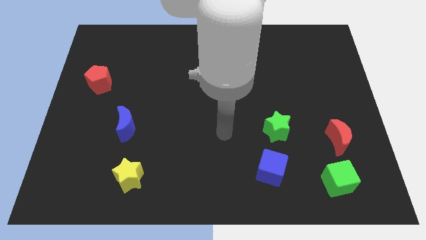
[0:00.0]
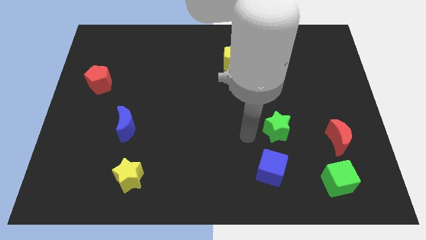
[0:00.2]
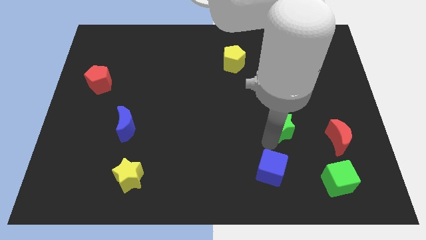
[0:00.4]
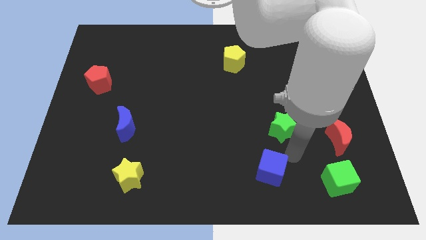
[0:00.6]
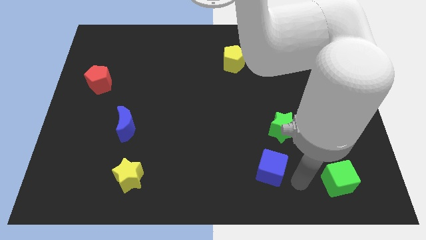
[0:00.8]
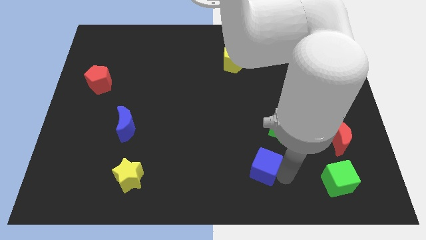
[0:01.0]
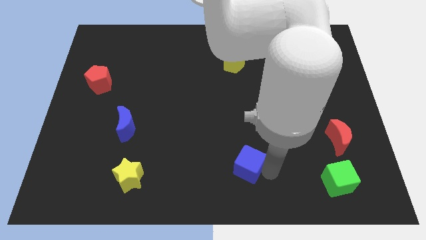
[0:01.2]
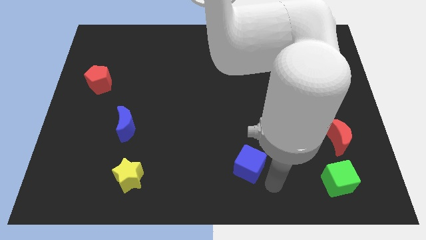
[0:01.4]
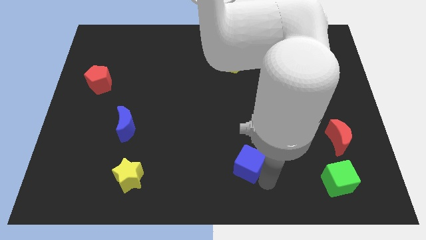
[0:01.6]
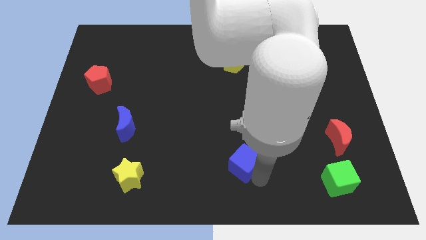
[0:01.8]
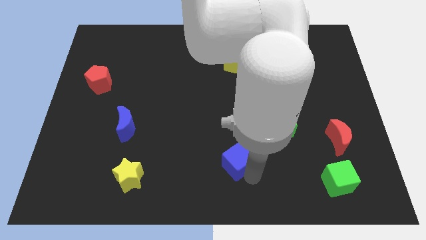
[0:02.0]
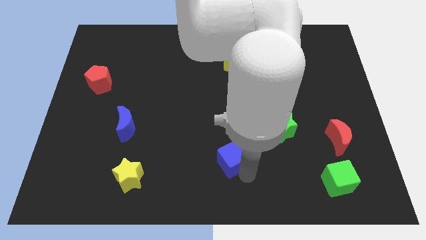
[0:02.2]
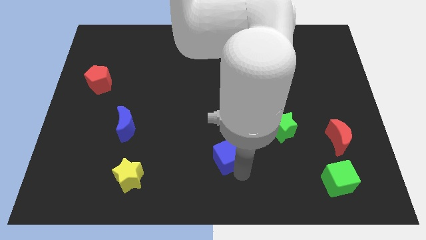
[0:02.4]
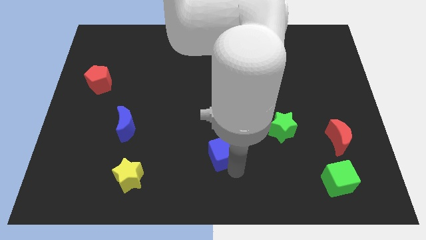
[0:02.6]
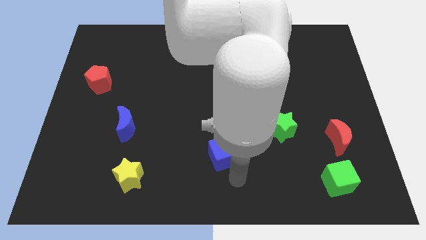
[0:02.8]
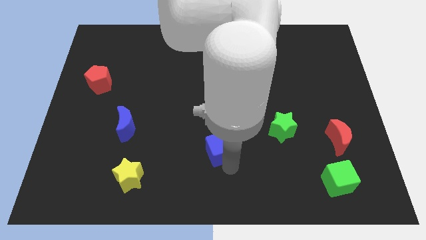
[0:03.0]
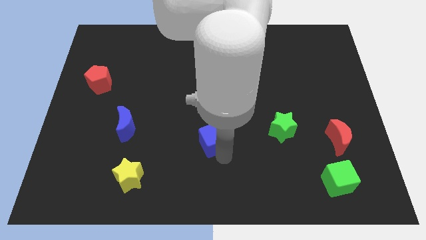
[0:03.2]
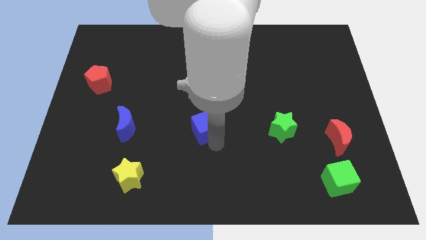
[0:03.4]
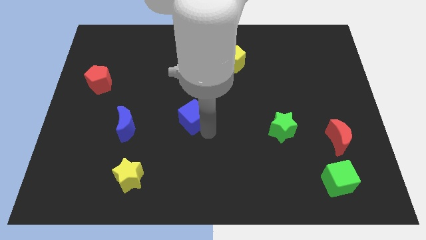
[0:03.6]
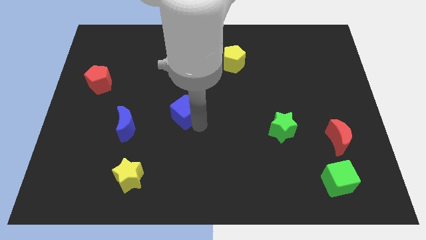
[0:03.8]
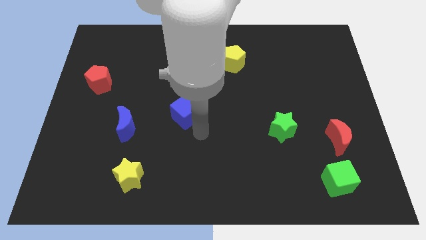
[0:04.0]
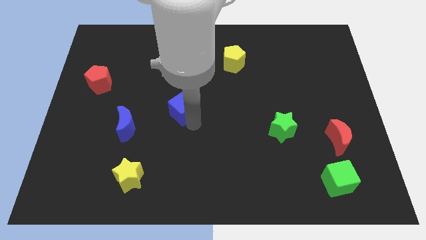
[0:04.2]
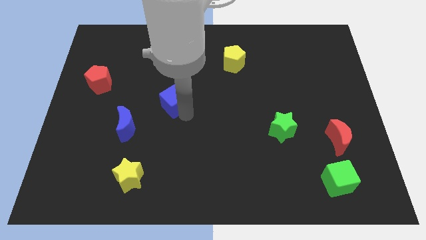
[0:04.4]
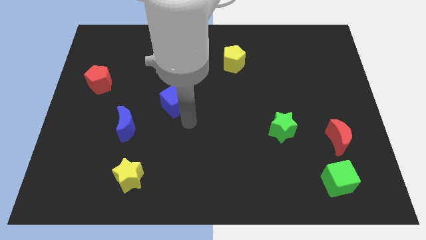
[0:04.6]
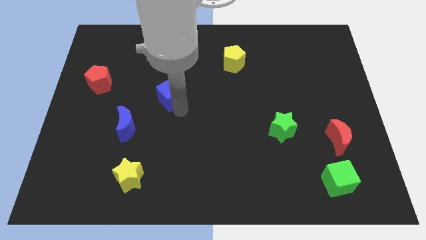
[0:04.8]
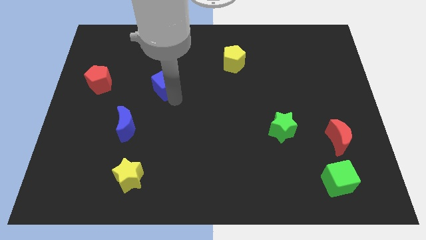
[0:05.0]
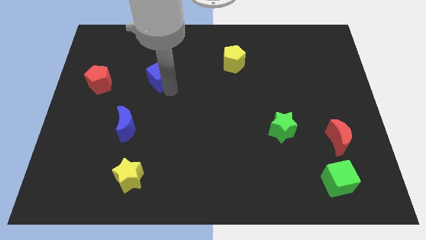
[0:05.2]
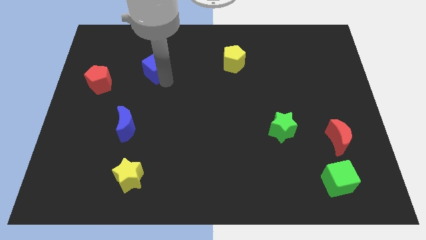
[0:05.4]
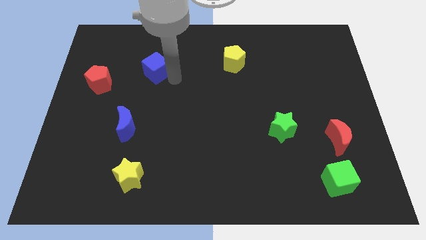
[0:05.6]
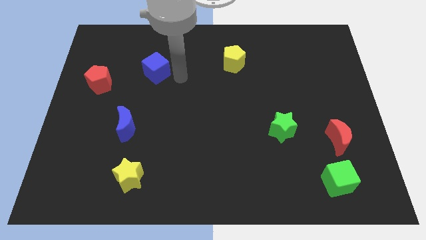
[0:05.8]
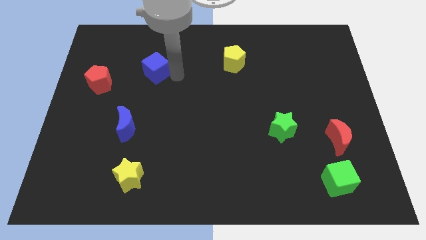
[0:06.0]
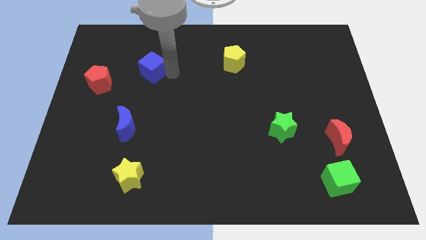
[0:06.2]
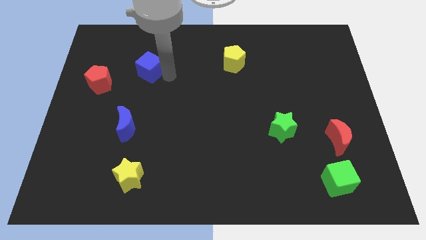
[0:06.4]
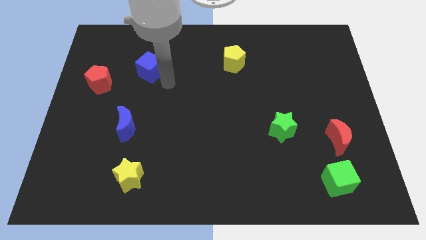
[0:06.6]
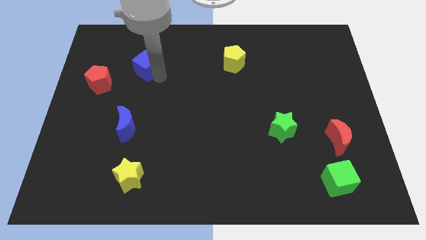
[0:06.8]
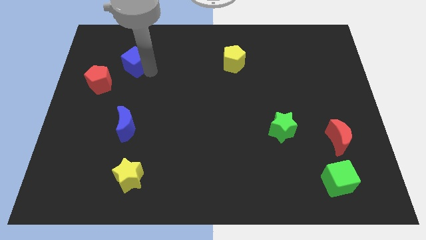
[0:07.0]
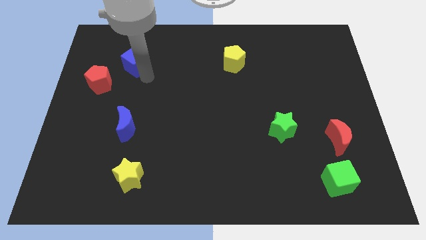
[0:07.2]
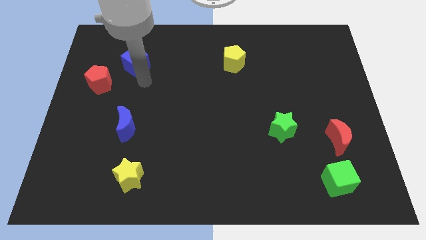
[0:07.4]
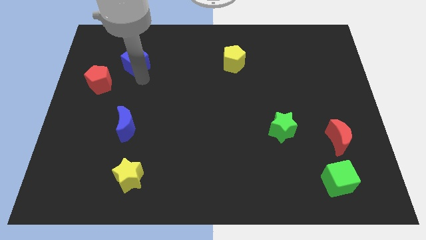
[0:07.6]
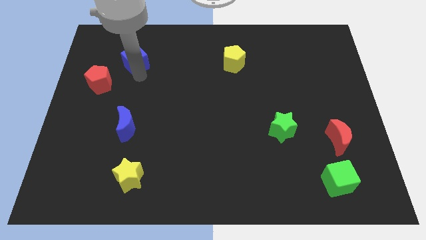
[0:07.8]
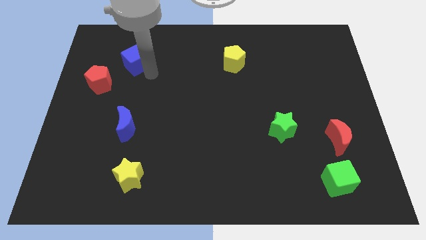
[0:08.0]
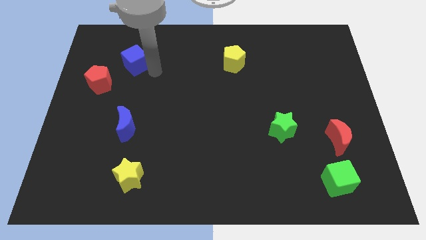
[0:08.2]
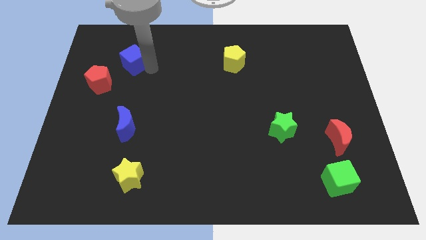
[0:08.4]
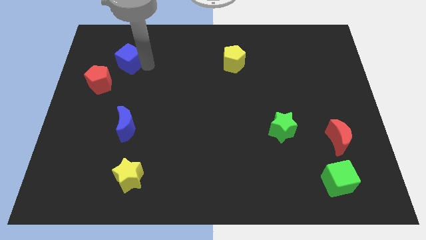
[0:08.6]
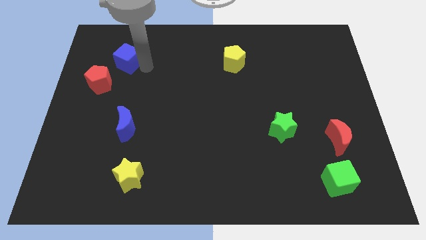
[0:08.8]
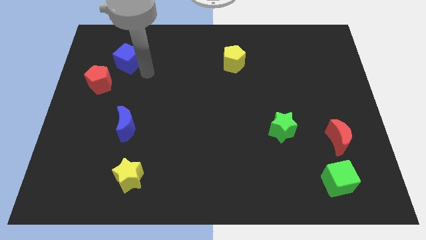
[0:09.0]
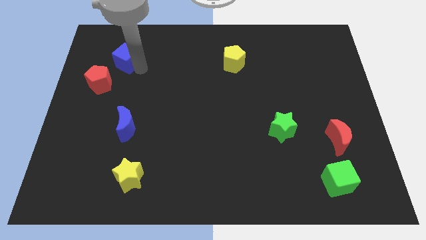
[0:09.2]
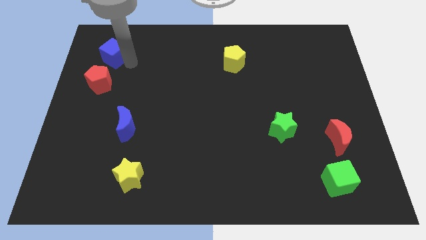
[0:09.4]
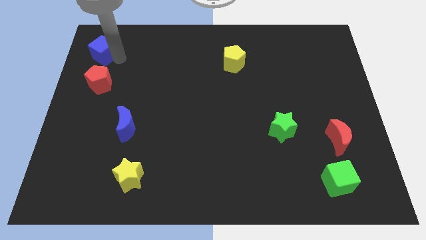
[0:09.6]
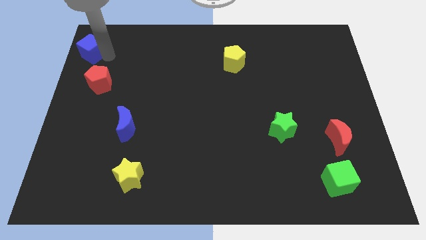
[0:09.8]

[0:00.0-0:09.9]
slide the blue cube to the top left of the board

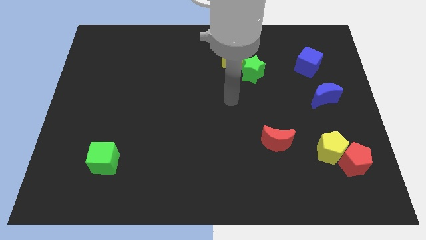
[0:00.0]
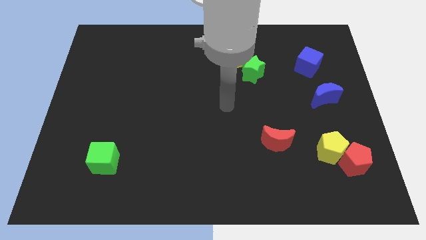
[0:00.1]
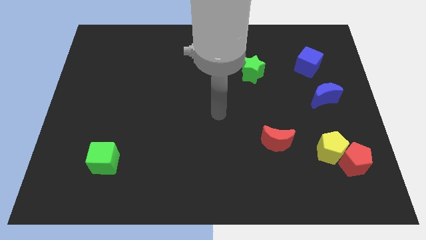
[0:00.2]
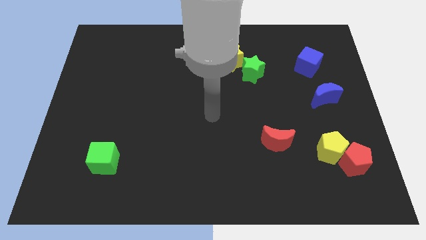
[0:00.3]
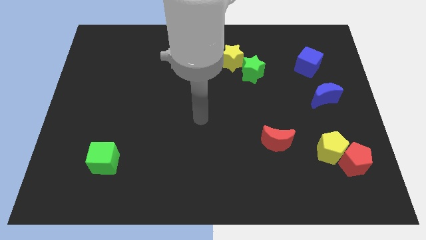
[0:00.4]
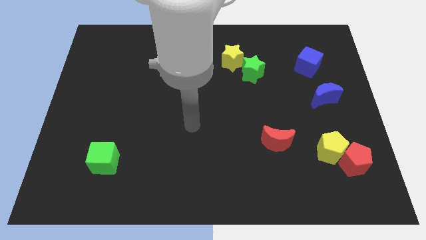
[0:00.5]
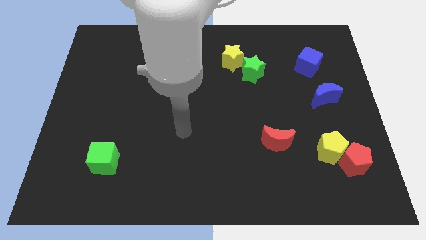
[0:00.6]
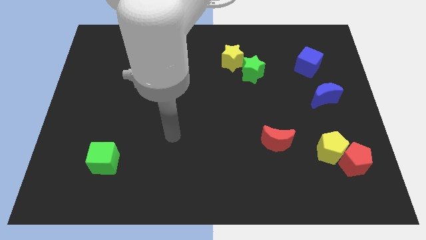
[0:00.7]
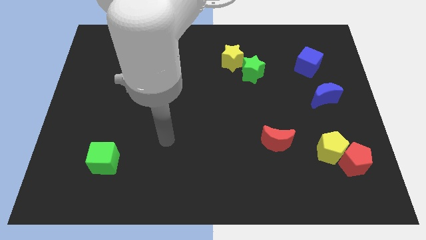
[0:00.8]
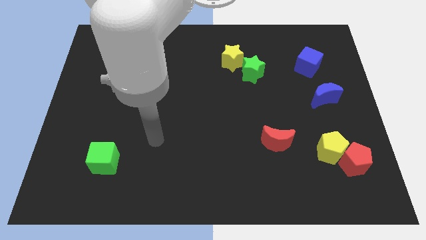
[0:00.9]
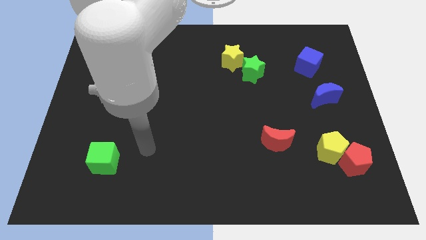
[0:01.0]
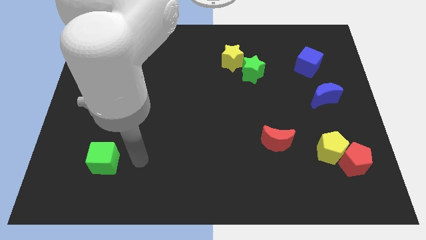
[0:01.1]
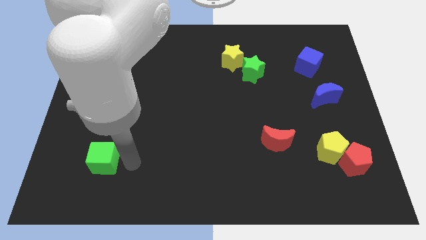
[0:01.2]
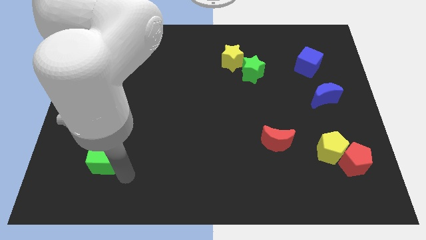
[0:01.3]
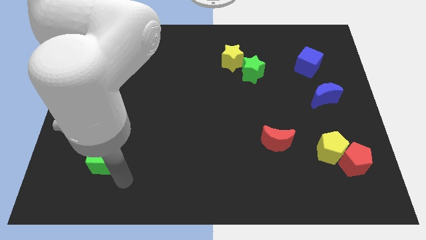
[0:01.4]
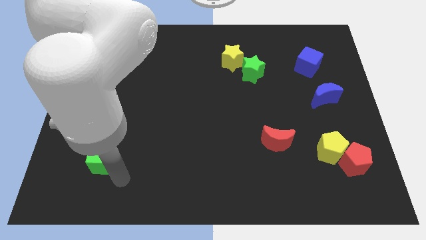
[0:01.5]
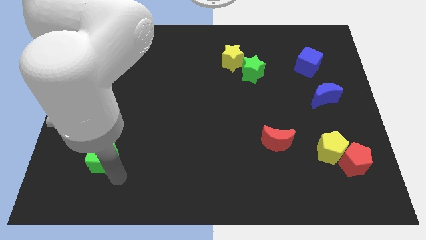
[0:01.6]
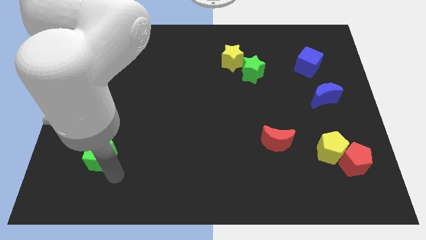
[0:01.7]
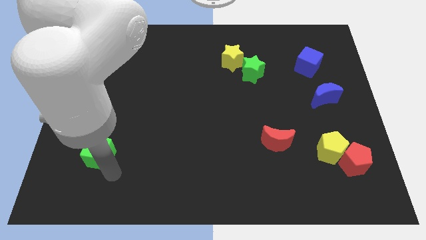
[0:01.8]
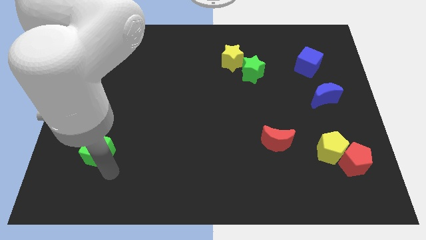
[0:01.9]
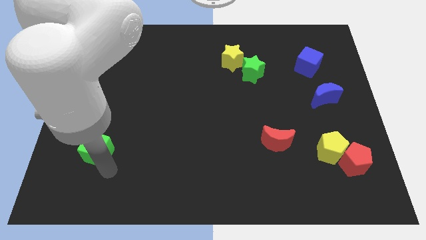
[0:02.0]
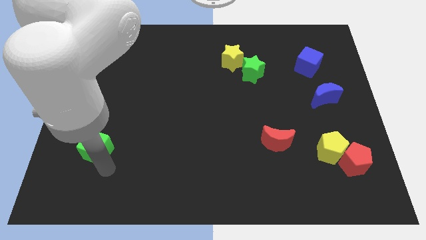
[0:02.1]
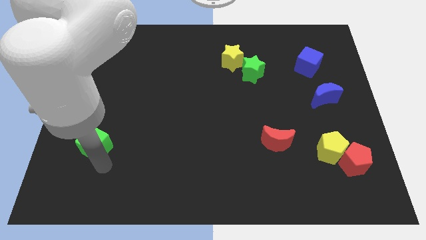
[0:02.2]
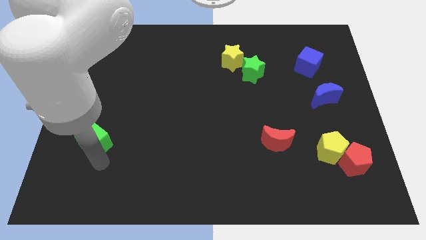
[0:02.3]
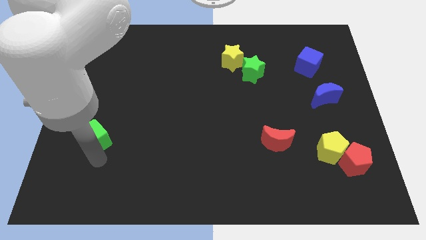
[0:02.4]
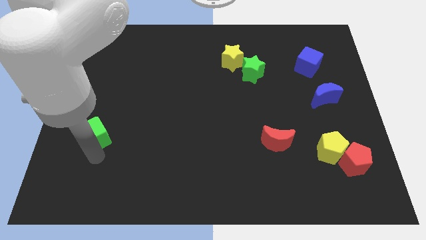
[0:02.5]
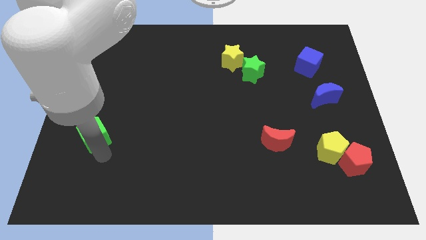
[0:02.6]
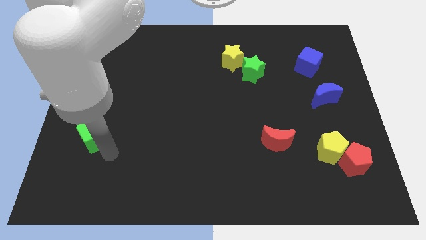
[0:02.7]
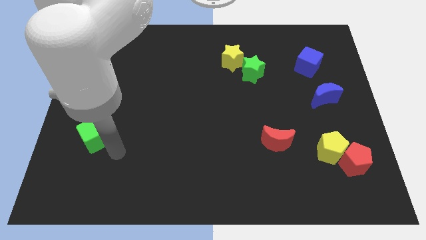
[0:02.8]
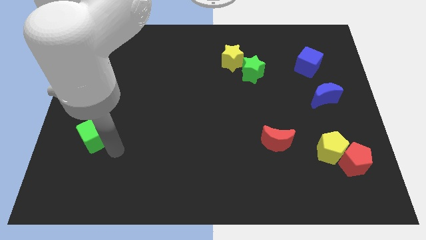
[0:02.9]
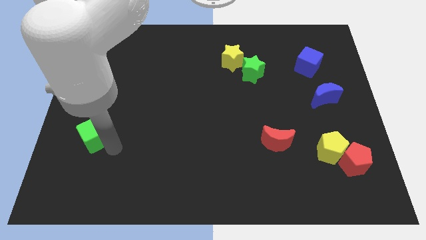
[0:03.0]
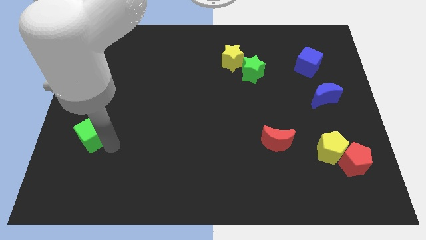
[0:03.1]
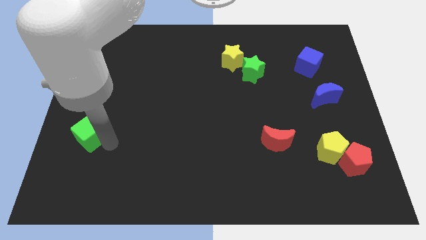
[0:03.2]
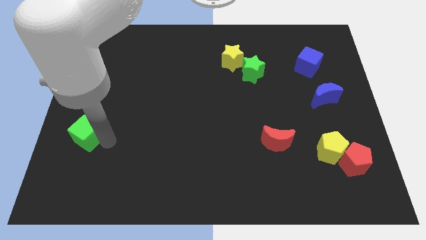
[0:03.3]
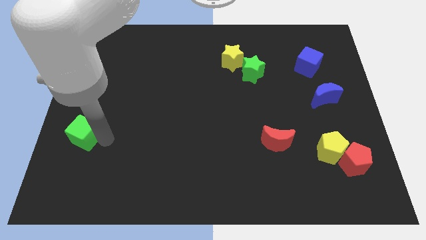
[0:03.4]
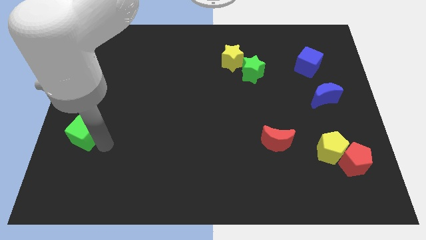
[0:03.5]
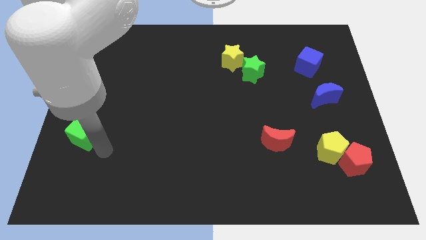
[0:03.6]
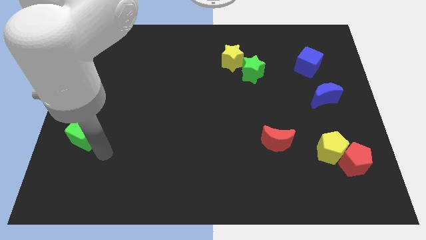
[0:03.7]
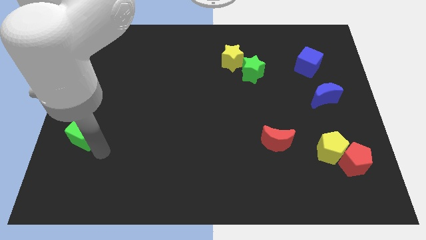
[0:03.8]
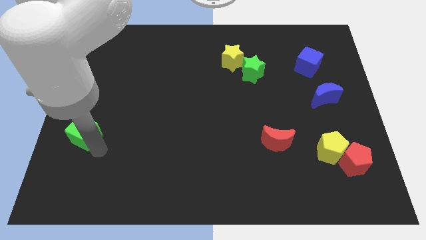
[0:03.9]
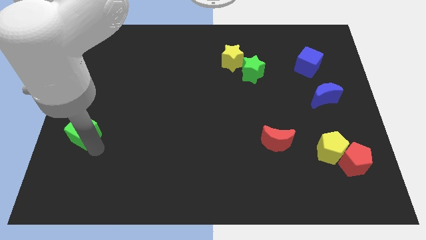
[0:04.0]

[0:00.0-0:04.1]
put the green cube to the center left
